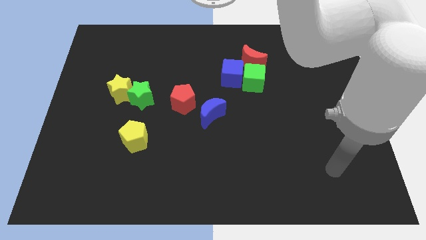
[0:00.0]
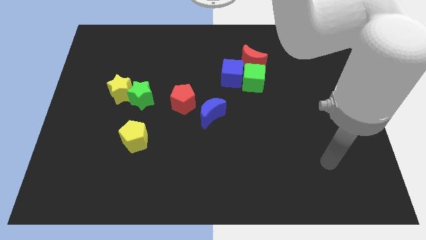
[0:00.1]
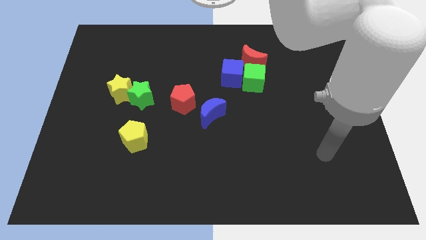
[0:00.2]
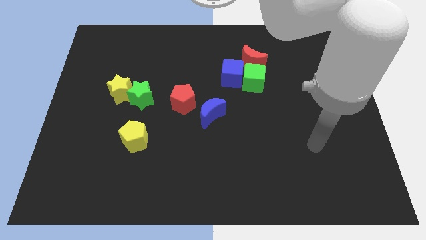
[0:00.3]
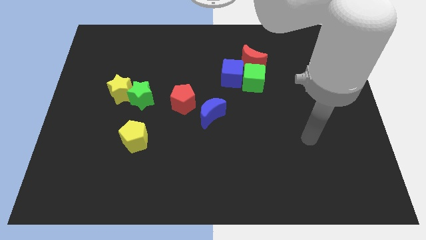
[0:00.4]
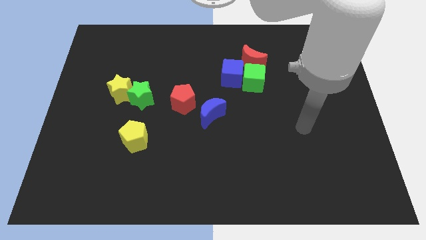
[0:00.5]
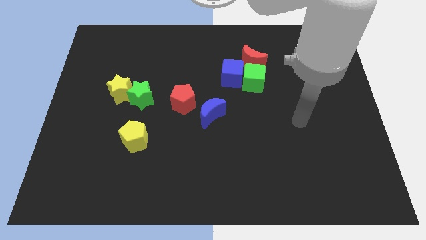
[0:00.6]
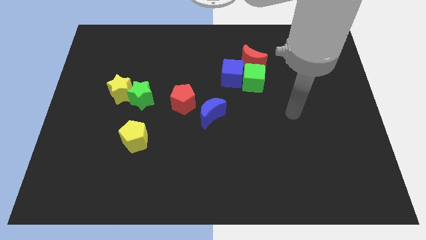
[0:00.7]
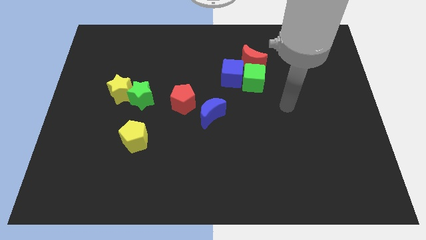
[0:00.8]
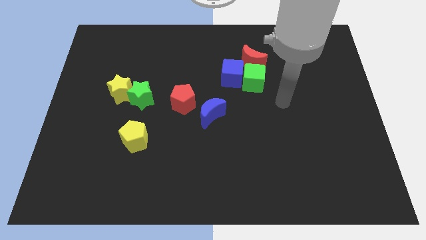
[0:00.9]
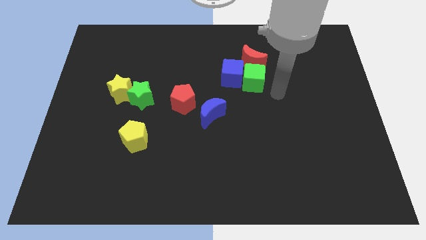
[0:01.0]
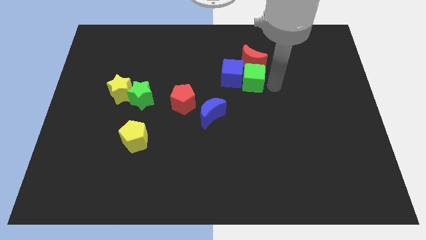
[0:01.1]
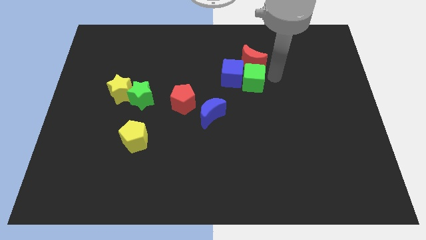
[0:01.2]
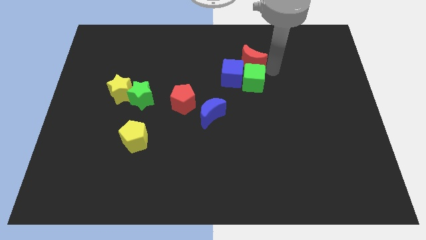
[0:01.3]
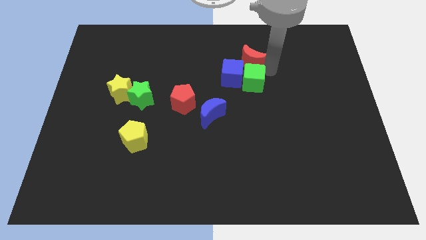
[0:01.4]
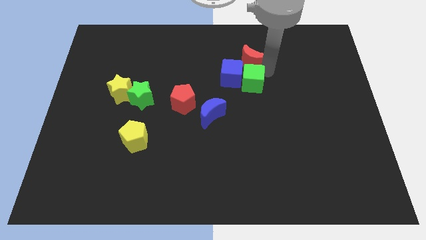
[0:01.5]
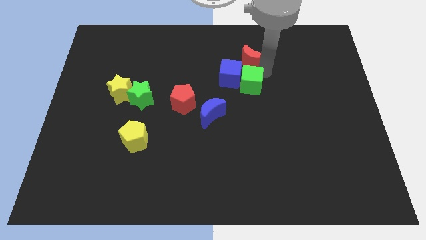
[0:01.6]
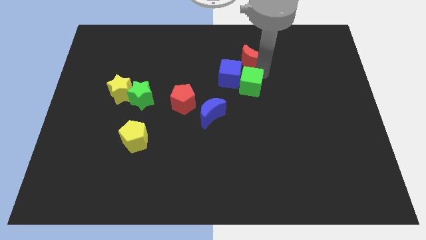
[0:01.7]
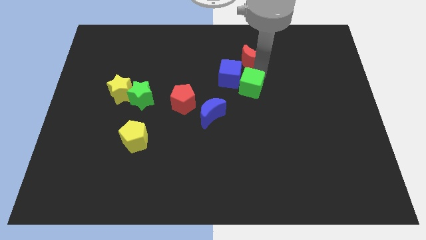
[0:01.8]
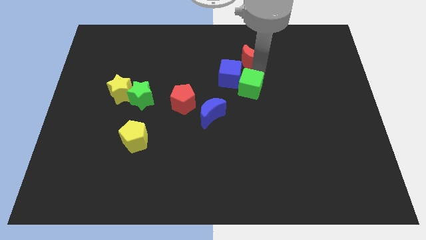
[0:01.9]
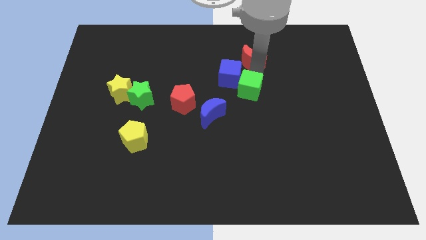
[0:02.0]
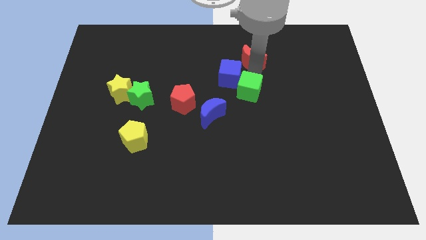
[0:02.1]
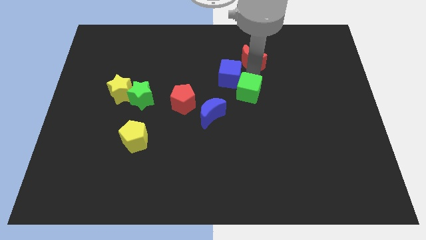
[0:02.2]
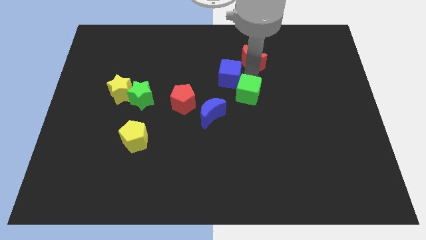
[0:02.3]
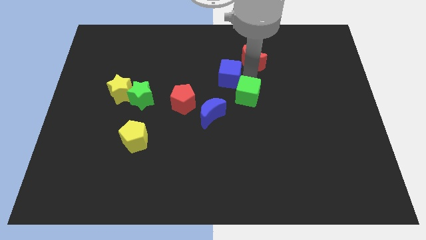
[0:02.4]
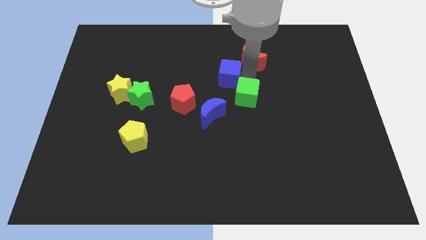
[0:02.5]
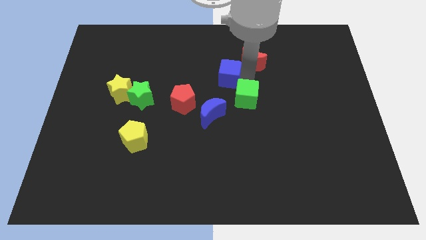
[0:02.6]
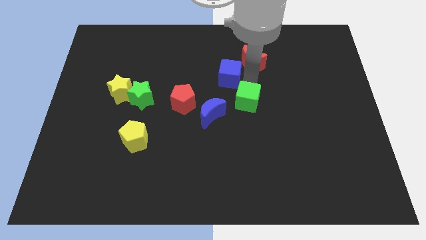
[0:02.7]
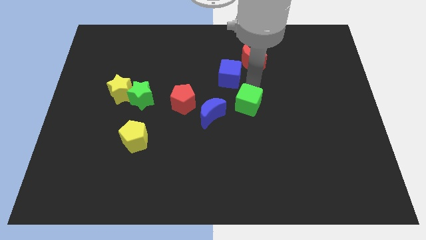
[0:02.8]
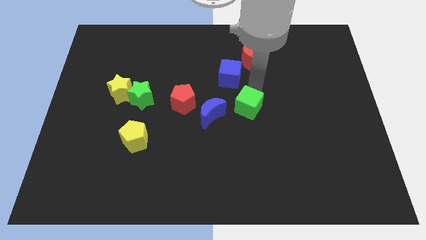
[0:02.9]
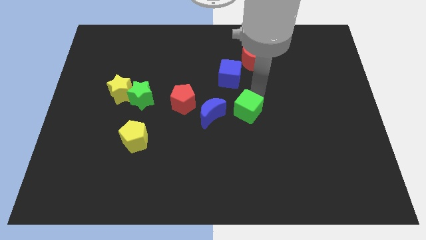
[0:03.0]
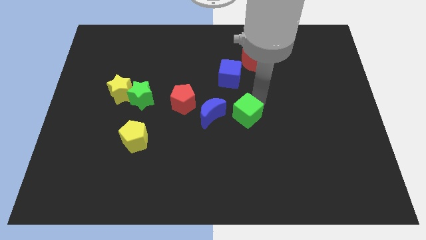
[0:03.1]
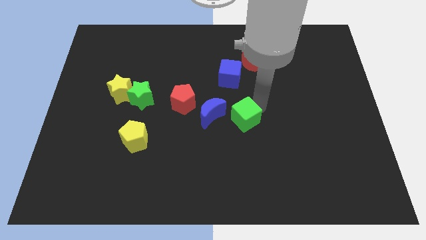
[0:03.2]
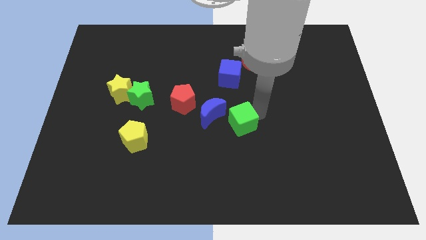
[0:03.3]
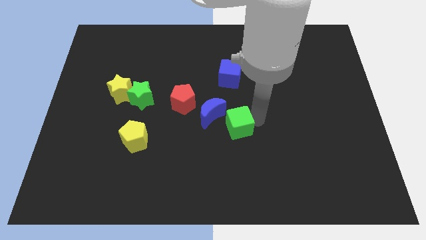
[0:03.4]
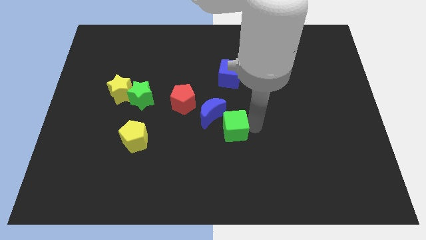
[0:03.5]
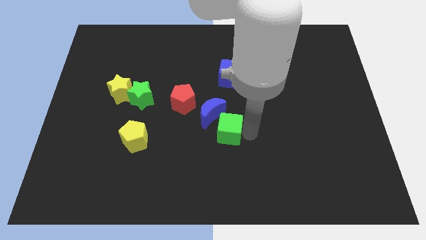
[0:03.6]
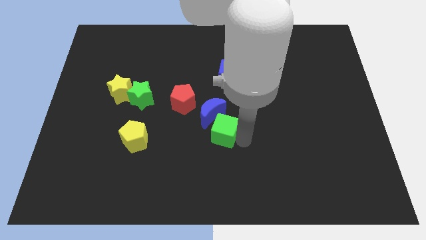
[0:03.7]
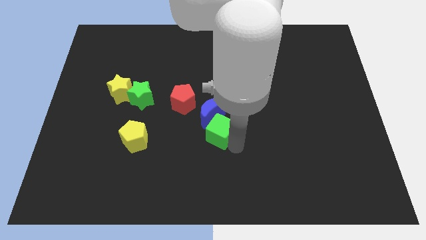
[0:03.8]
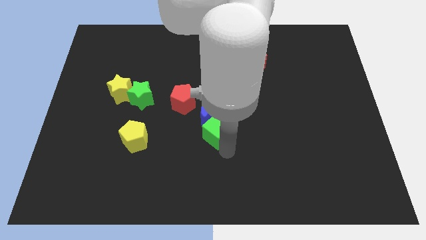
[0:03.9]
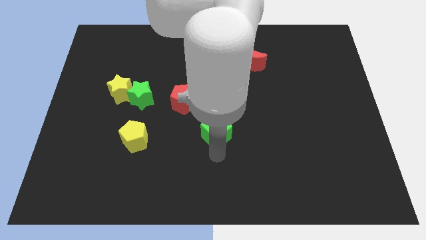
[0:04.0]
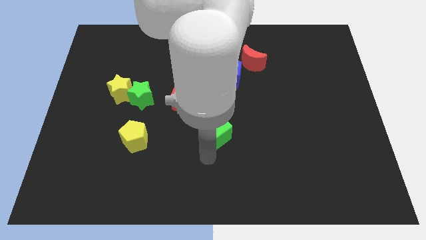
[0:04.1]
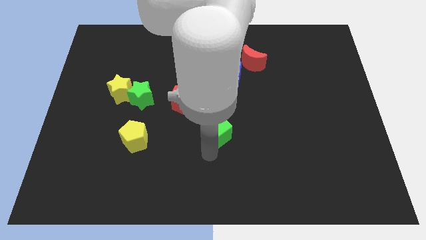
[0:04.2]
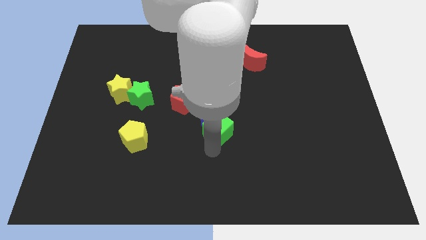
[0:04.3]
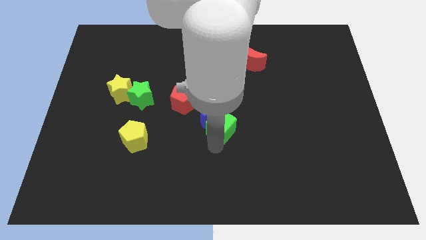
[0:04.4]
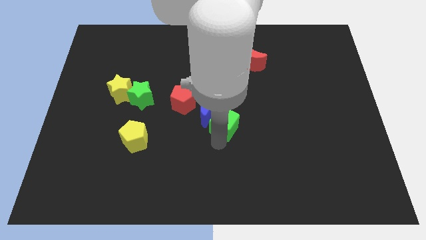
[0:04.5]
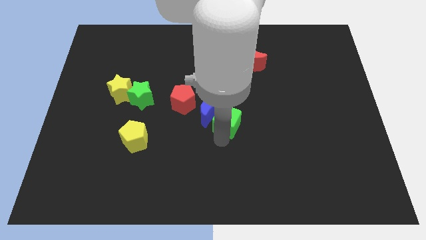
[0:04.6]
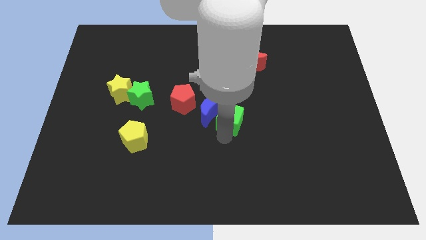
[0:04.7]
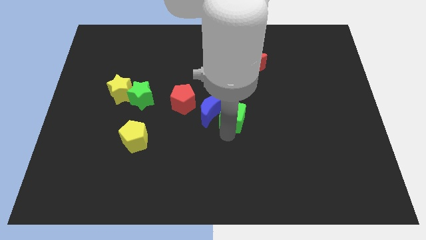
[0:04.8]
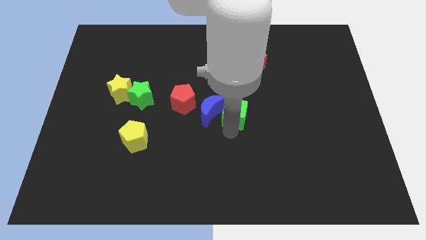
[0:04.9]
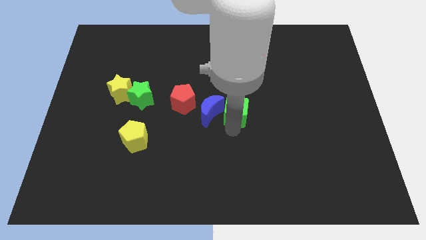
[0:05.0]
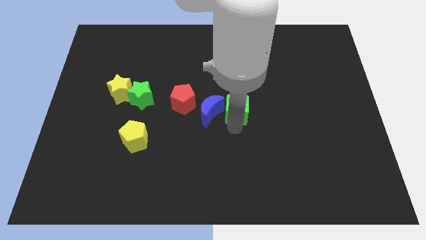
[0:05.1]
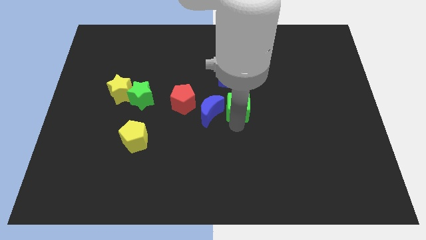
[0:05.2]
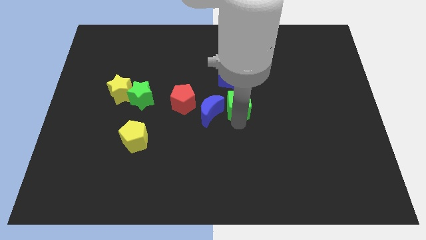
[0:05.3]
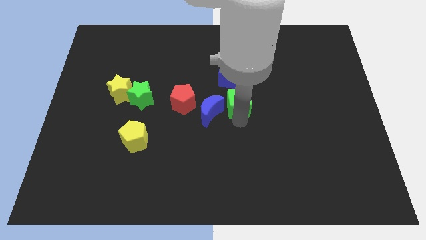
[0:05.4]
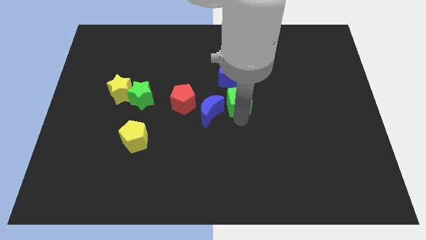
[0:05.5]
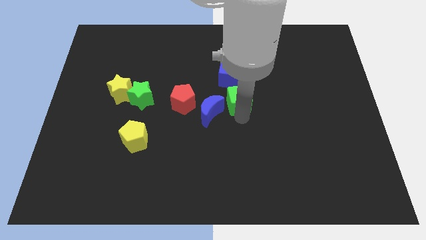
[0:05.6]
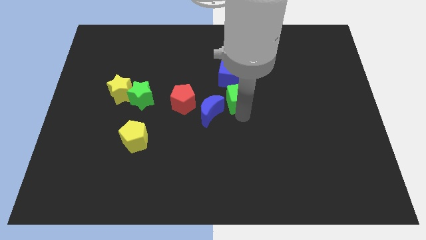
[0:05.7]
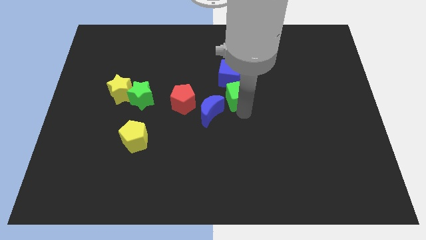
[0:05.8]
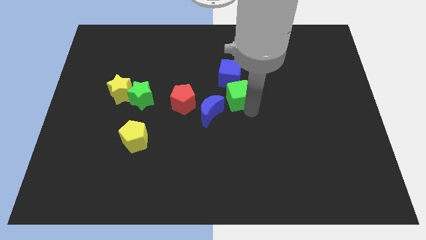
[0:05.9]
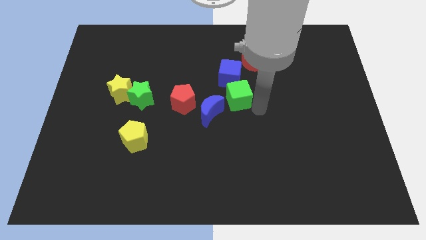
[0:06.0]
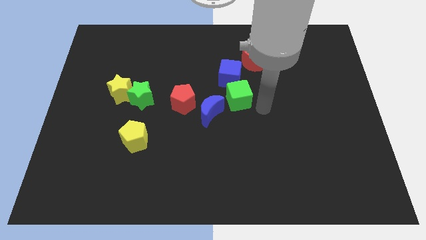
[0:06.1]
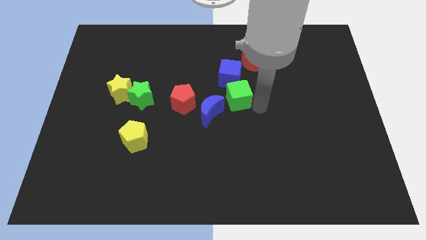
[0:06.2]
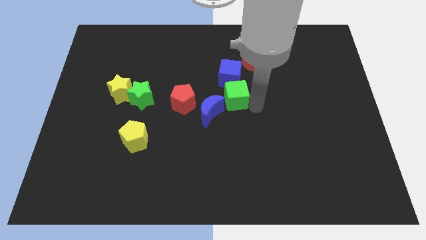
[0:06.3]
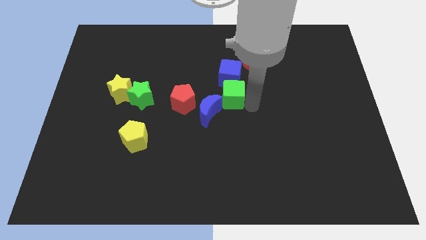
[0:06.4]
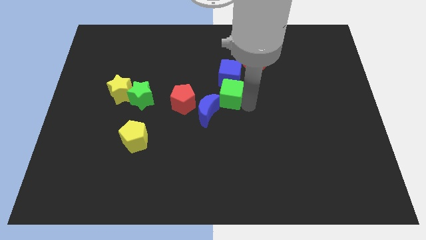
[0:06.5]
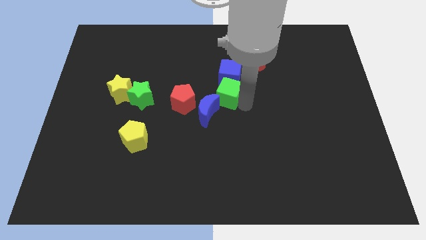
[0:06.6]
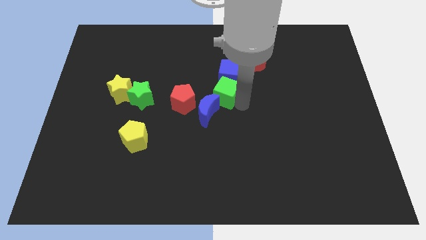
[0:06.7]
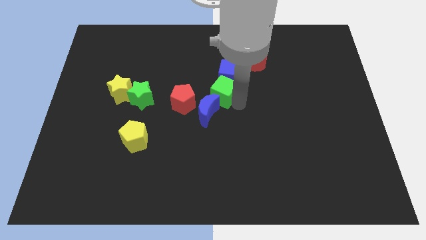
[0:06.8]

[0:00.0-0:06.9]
slightly slide the green cube to the left

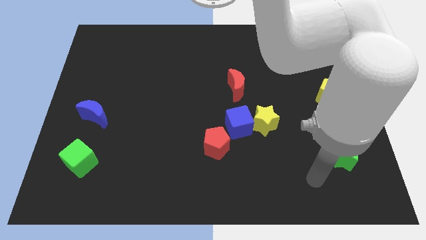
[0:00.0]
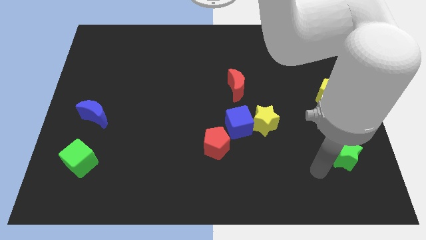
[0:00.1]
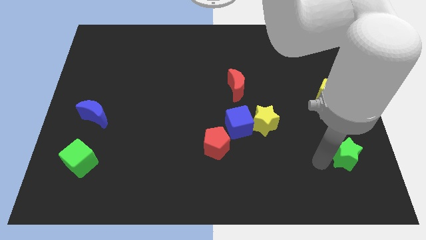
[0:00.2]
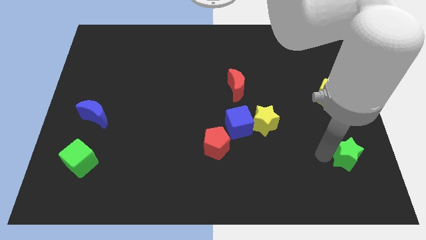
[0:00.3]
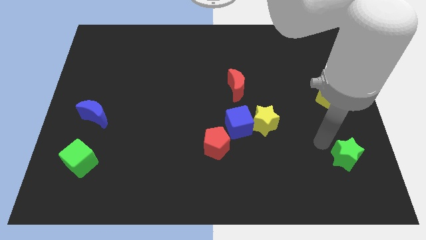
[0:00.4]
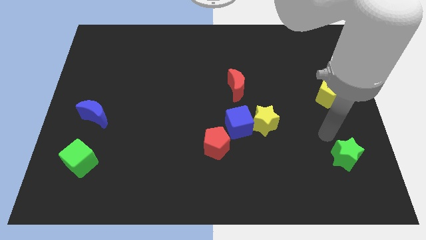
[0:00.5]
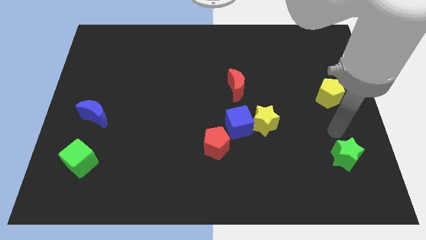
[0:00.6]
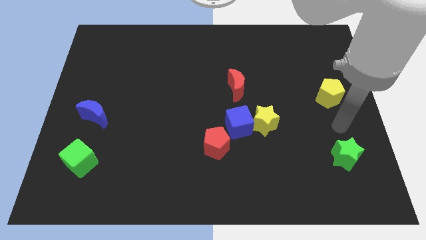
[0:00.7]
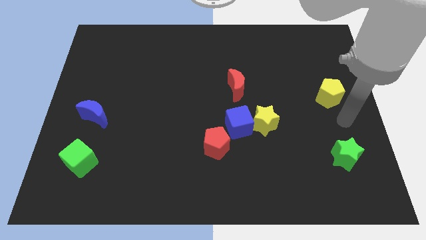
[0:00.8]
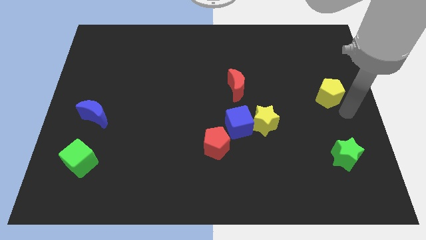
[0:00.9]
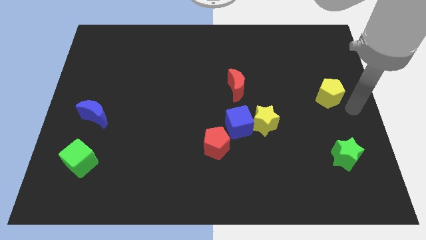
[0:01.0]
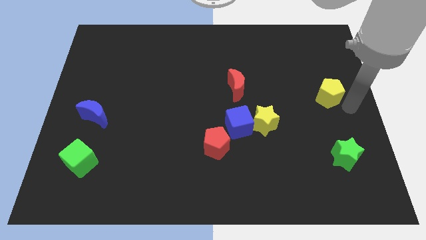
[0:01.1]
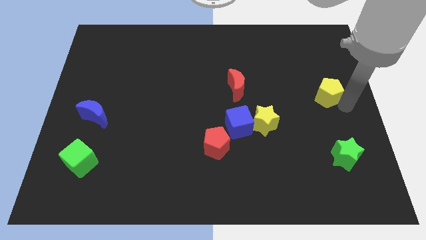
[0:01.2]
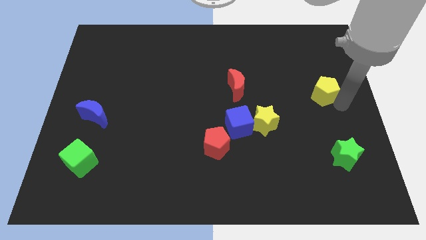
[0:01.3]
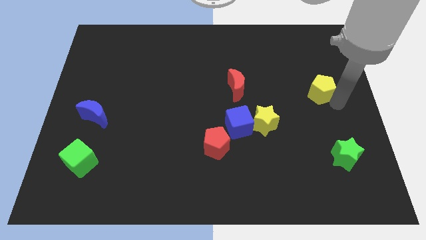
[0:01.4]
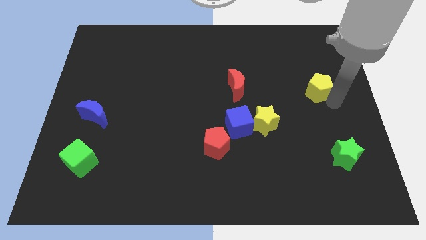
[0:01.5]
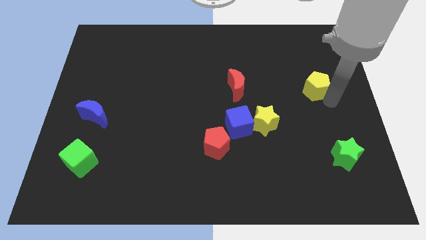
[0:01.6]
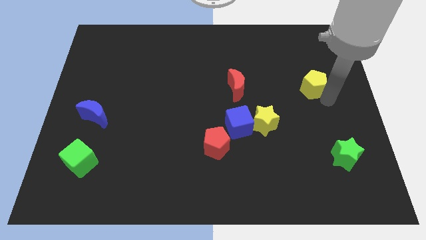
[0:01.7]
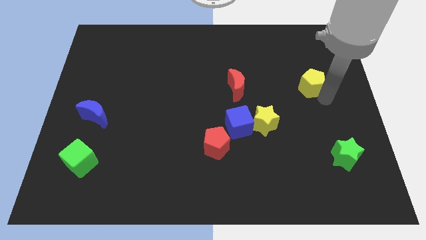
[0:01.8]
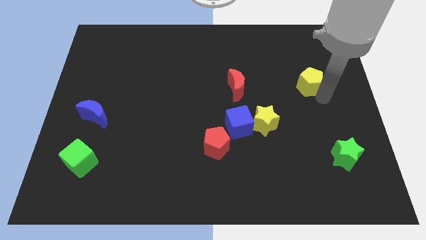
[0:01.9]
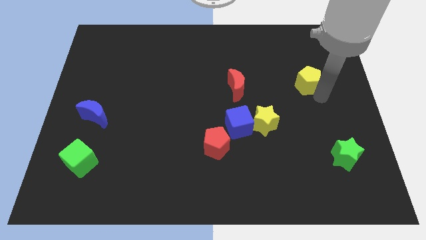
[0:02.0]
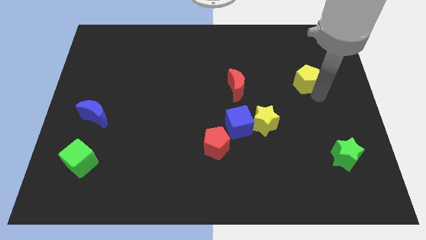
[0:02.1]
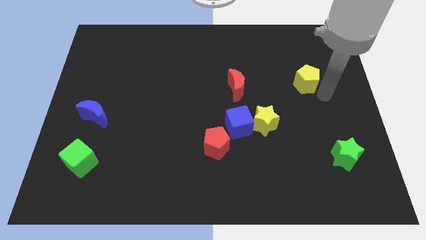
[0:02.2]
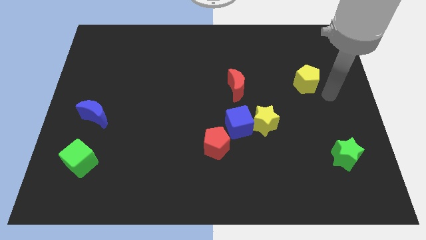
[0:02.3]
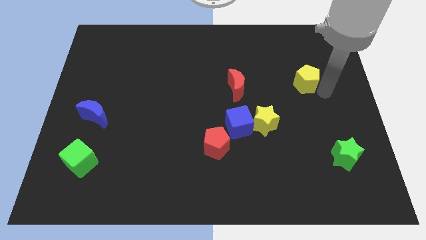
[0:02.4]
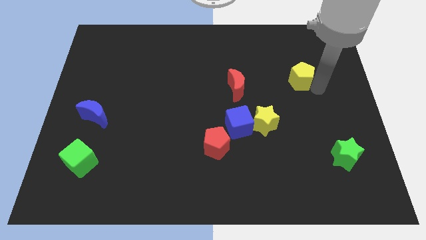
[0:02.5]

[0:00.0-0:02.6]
move the yellow pentagon somewhat upwards and then to the left
